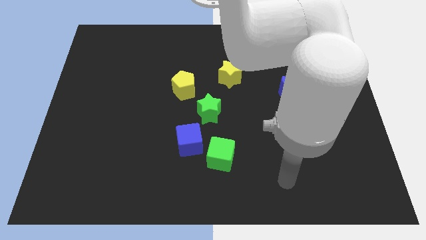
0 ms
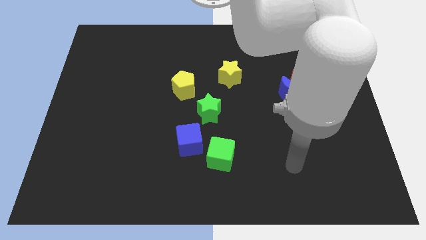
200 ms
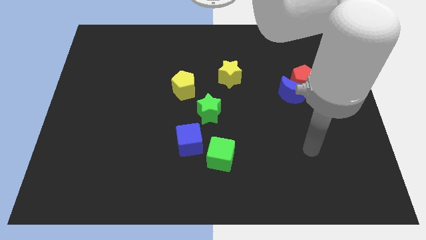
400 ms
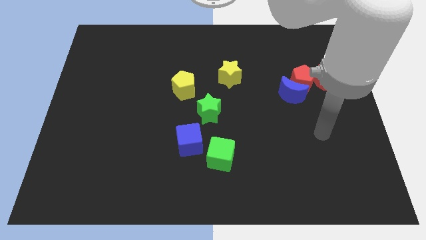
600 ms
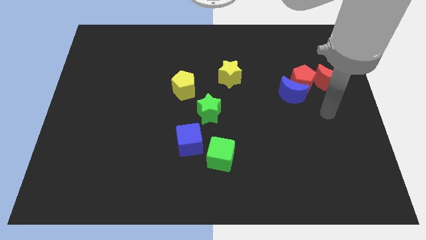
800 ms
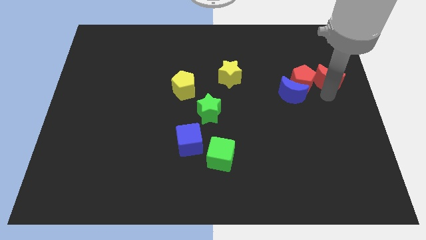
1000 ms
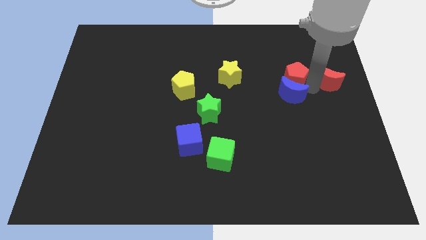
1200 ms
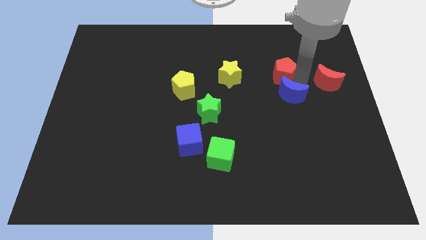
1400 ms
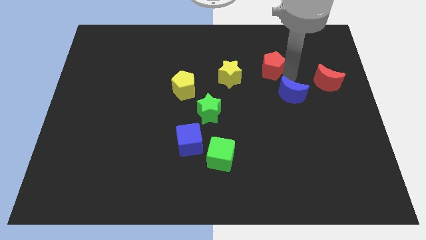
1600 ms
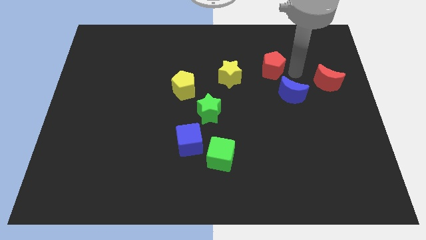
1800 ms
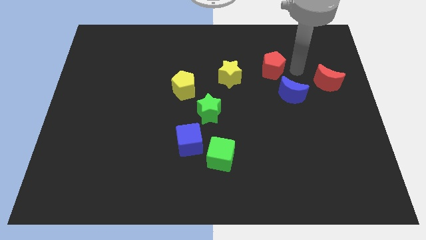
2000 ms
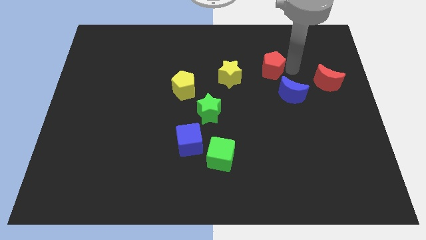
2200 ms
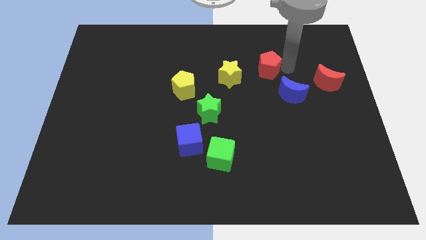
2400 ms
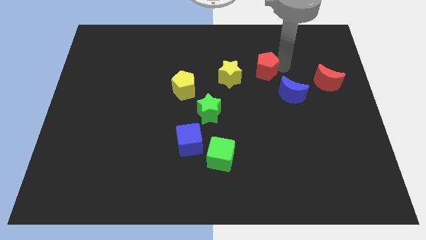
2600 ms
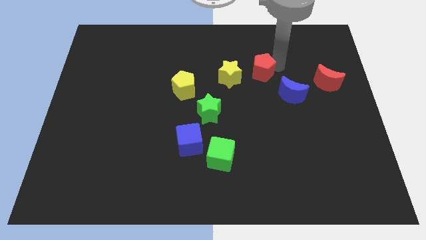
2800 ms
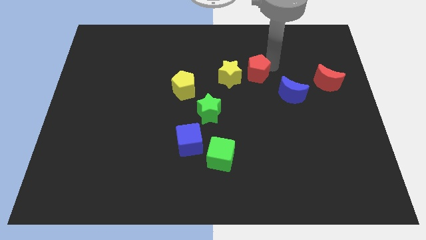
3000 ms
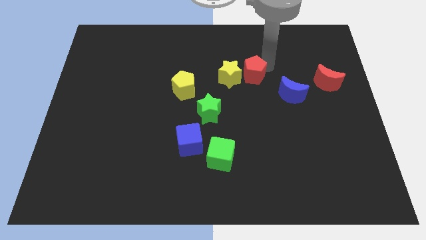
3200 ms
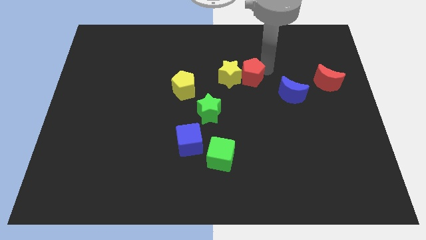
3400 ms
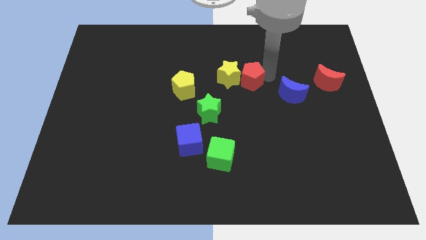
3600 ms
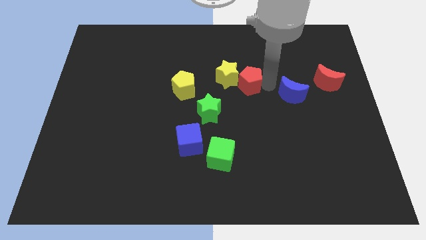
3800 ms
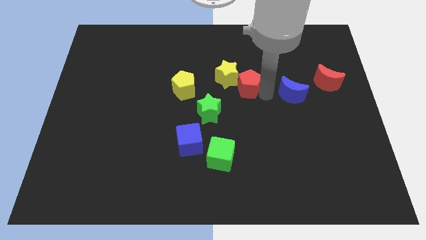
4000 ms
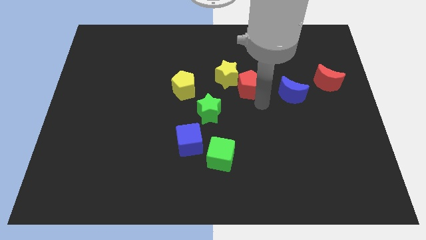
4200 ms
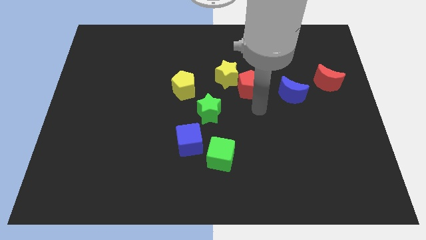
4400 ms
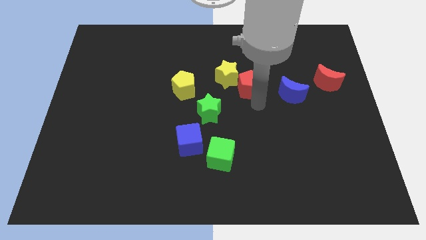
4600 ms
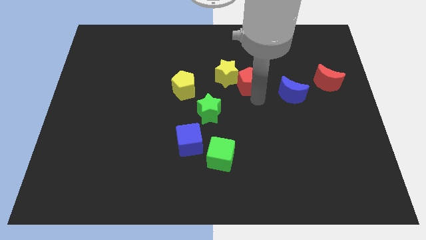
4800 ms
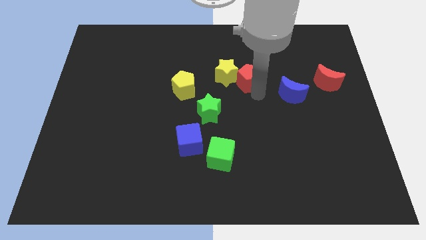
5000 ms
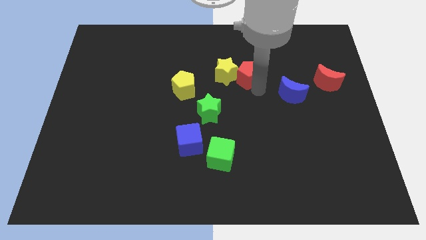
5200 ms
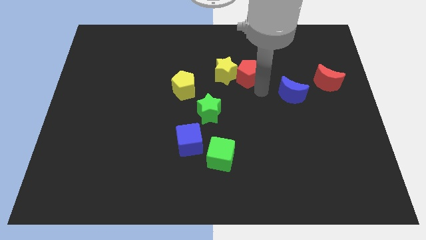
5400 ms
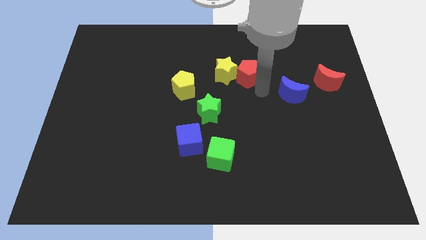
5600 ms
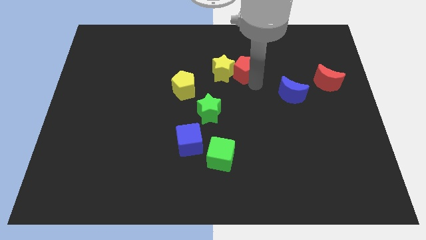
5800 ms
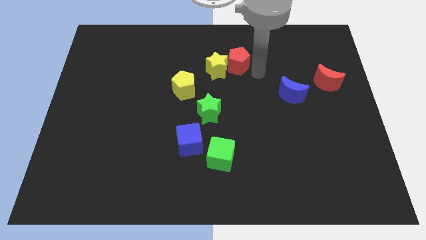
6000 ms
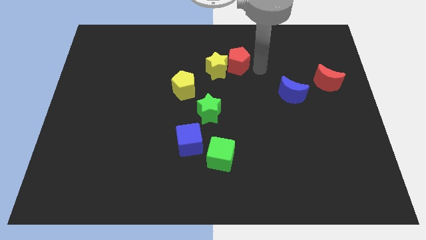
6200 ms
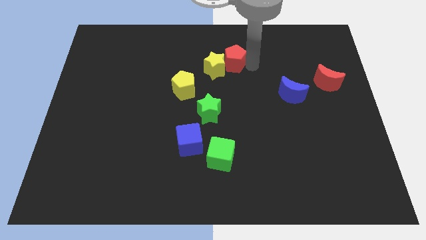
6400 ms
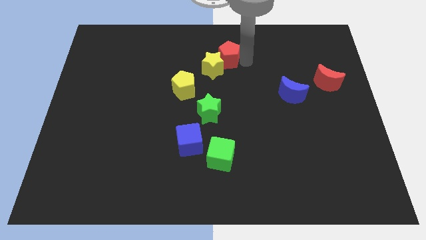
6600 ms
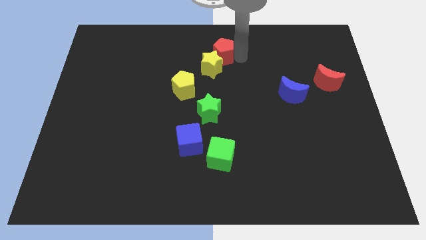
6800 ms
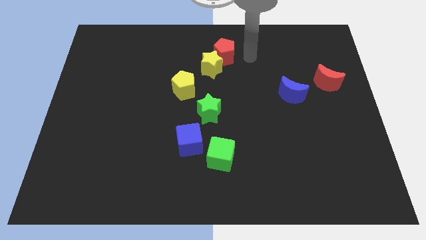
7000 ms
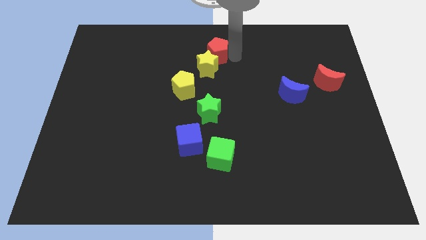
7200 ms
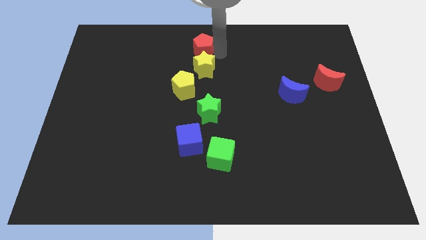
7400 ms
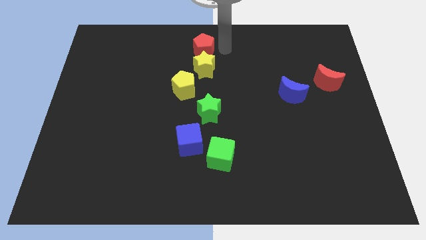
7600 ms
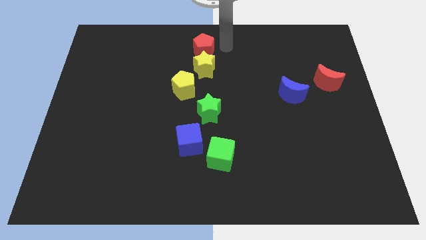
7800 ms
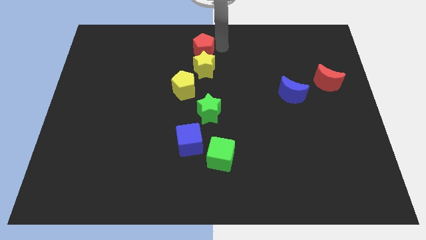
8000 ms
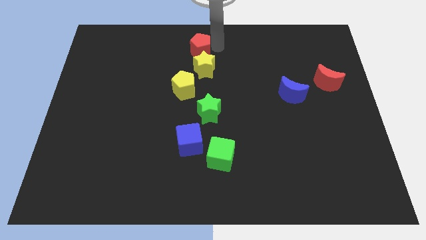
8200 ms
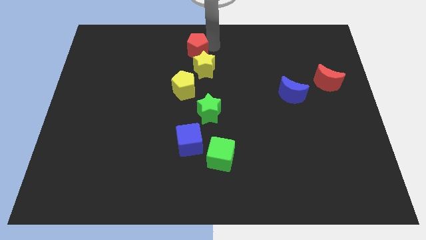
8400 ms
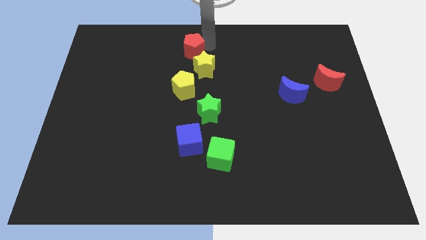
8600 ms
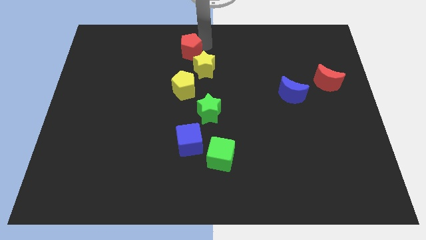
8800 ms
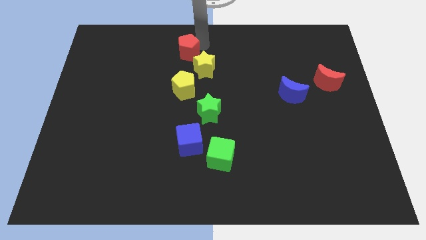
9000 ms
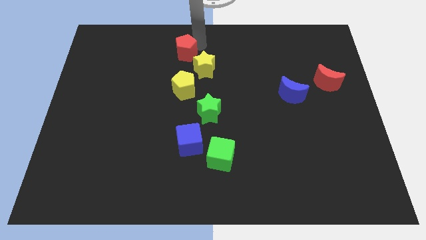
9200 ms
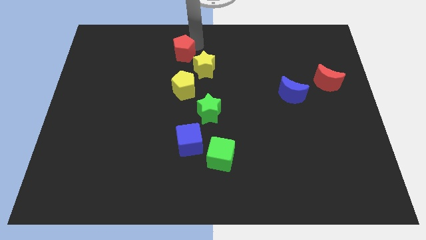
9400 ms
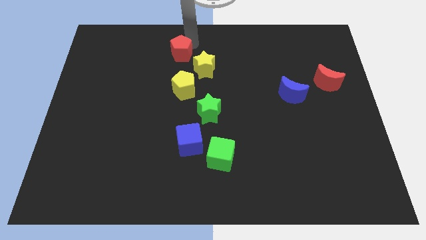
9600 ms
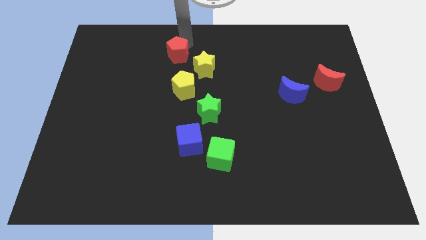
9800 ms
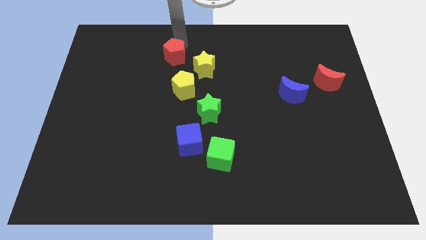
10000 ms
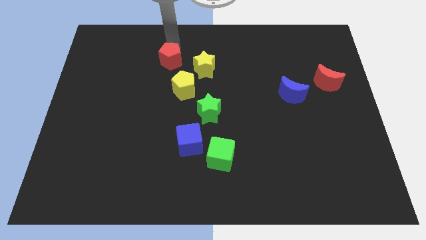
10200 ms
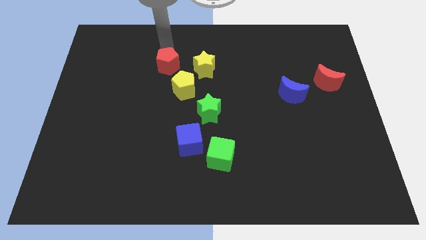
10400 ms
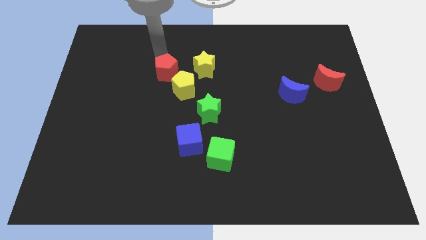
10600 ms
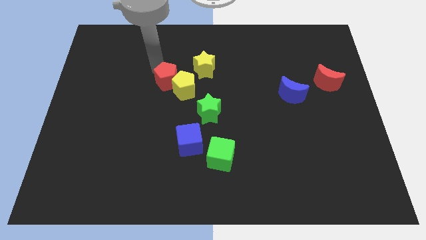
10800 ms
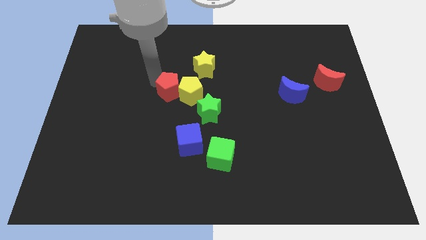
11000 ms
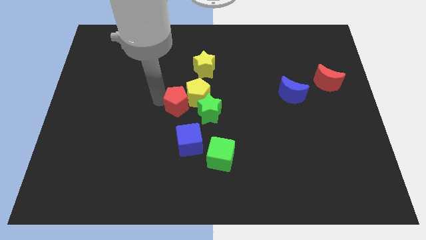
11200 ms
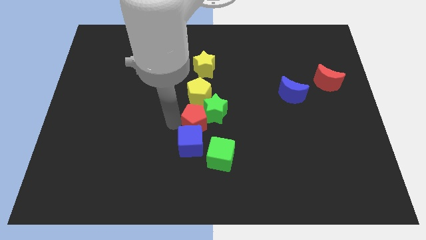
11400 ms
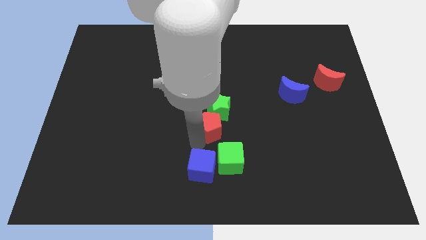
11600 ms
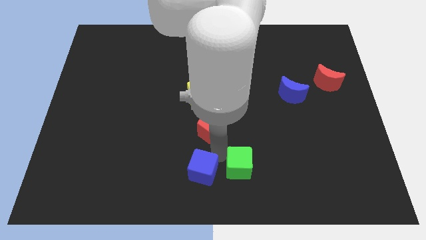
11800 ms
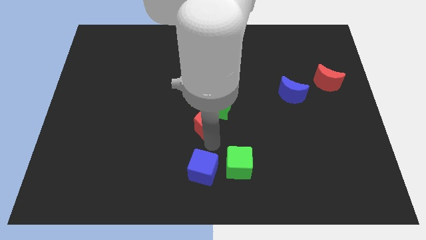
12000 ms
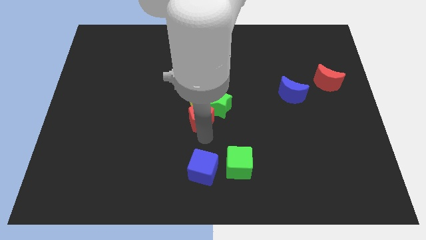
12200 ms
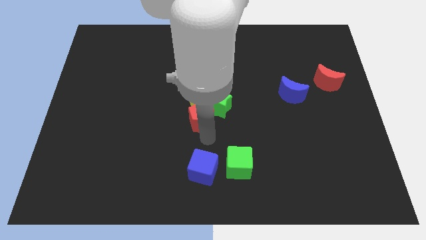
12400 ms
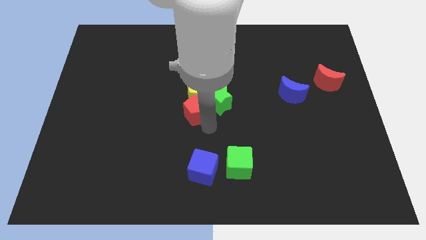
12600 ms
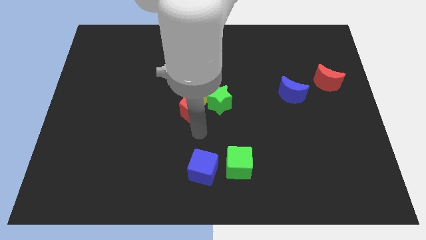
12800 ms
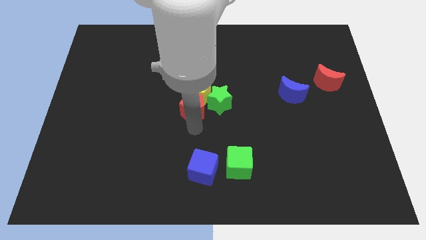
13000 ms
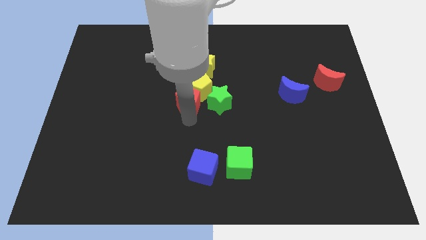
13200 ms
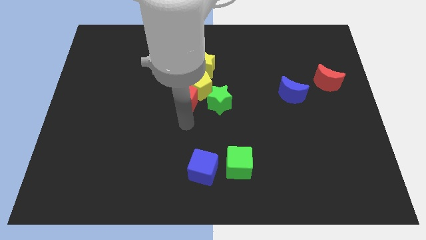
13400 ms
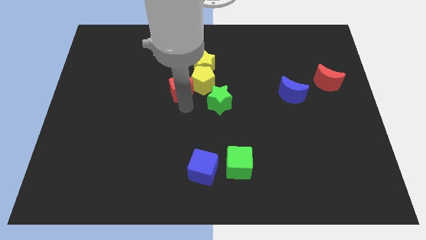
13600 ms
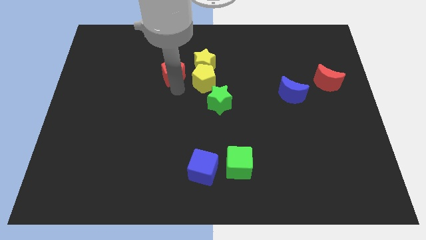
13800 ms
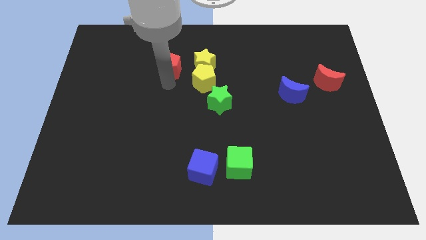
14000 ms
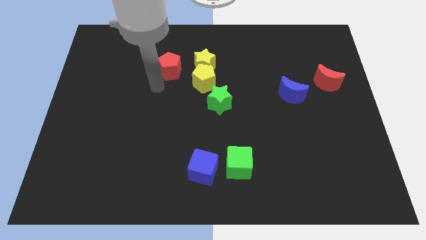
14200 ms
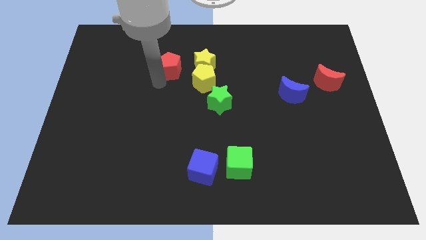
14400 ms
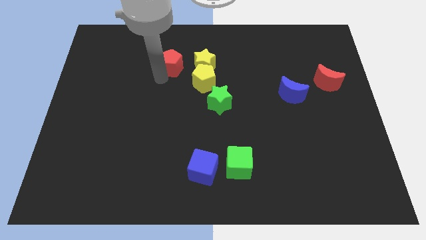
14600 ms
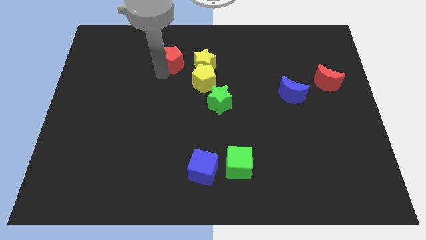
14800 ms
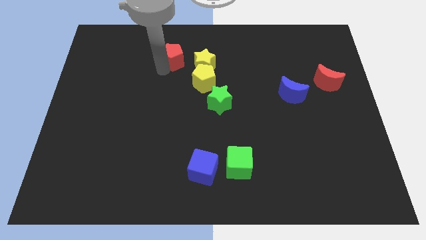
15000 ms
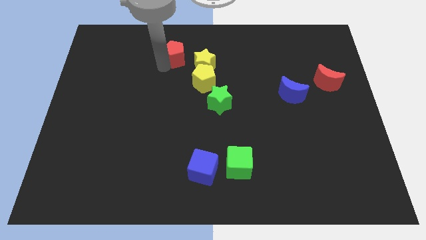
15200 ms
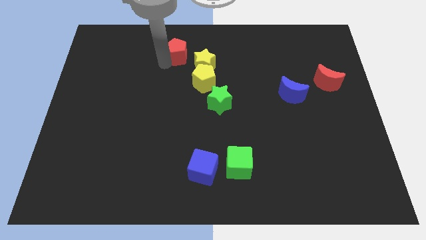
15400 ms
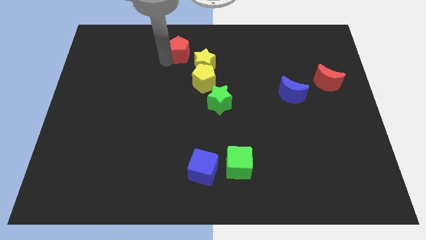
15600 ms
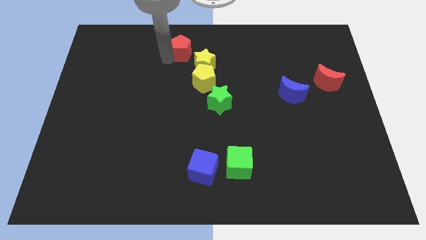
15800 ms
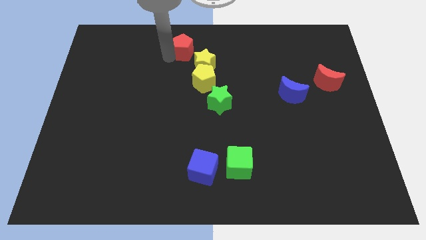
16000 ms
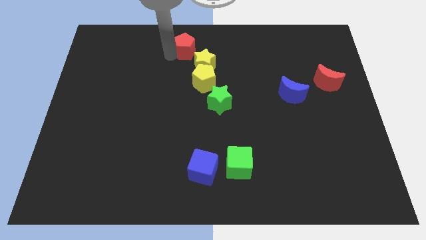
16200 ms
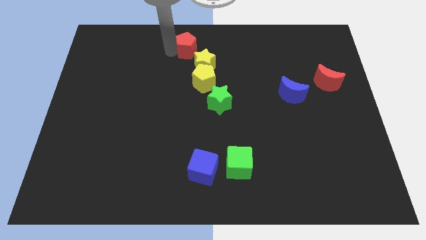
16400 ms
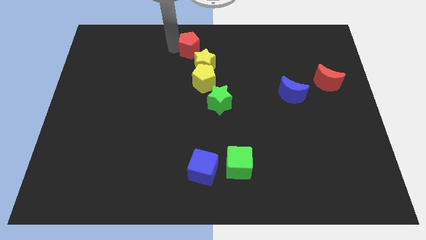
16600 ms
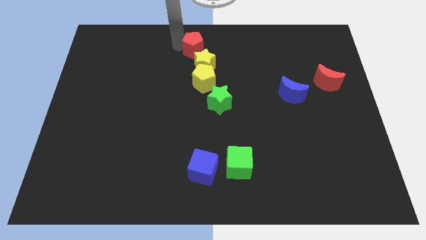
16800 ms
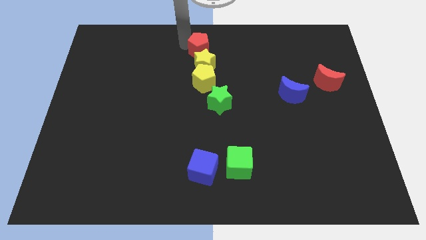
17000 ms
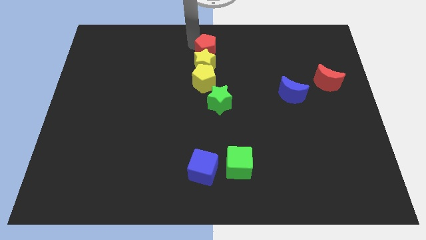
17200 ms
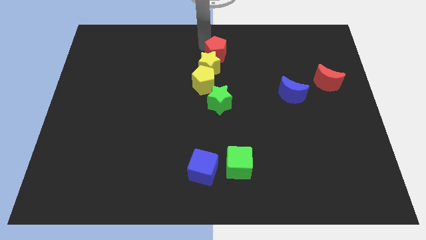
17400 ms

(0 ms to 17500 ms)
put the red pentagon to the top left side of the yellow star
